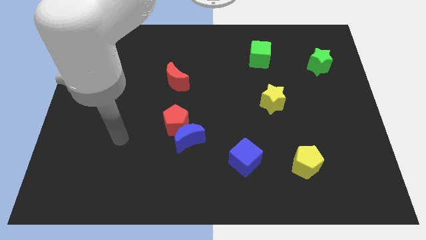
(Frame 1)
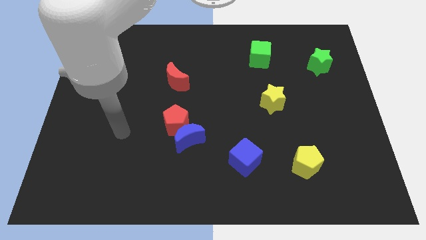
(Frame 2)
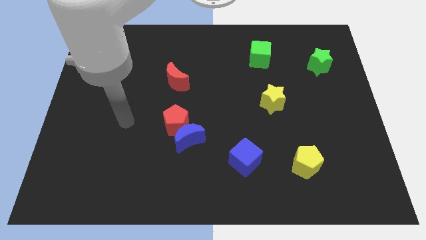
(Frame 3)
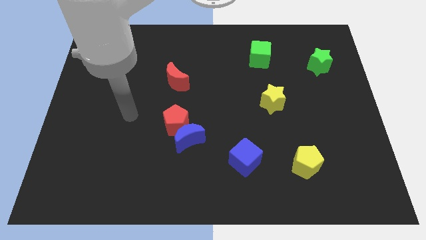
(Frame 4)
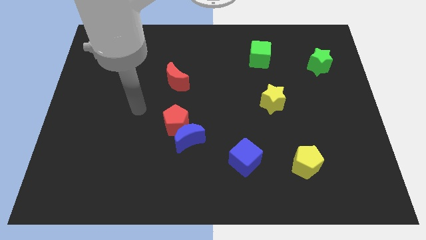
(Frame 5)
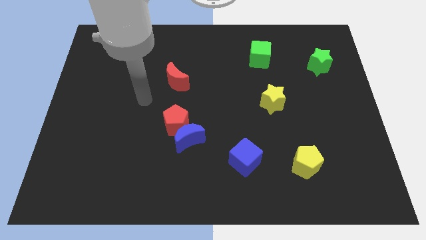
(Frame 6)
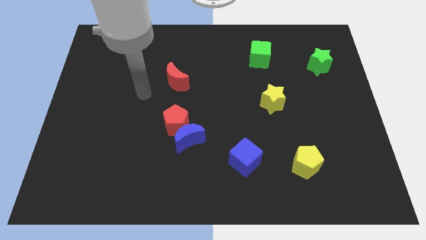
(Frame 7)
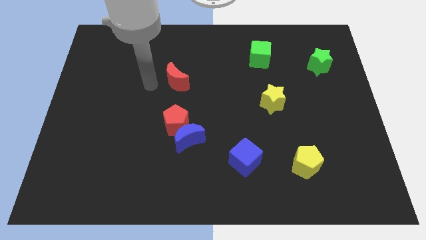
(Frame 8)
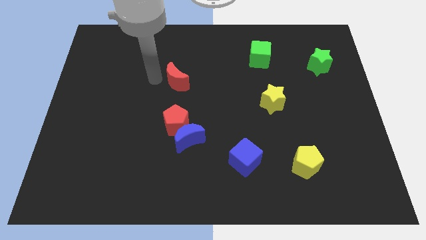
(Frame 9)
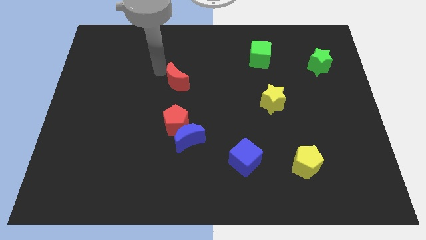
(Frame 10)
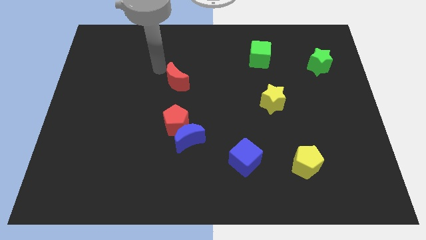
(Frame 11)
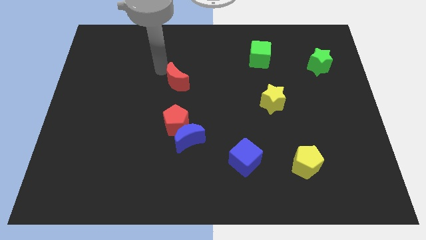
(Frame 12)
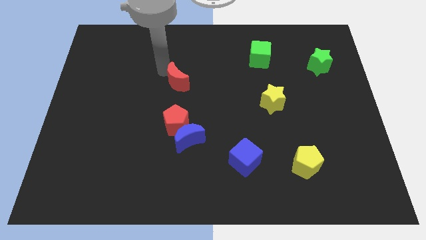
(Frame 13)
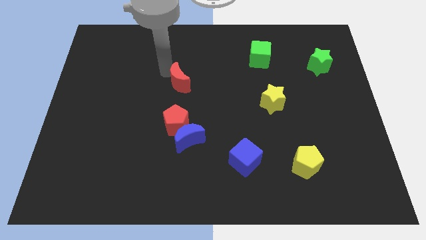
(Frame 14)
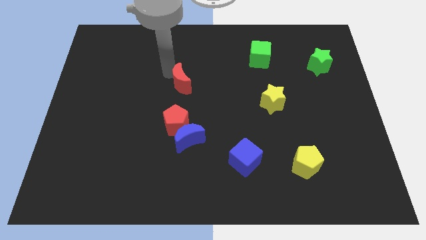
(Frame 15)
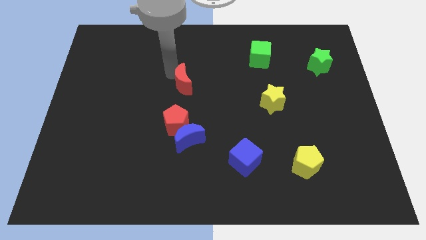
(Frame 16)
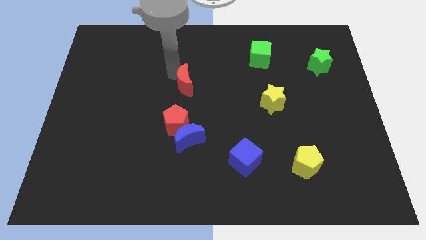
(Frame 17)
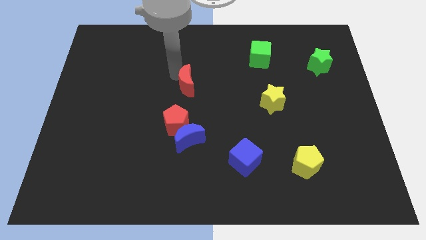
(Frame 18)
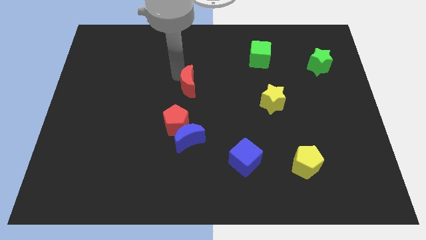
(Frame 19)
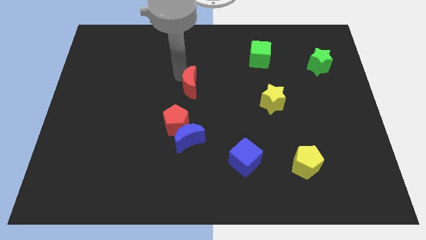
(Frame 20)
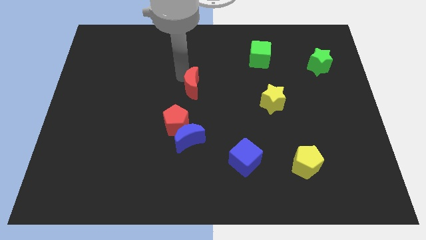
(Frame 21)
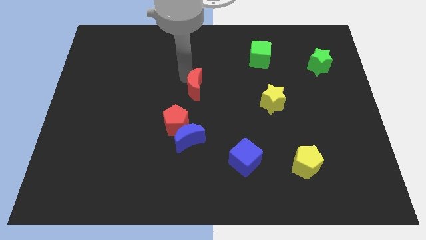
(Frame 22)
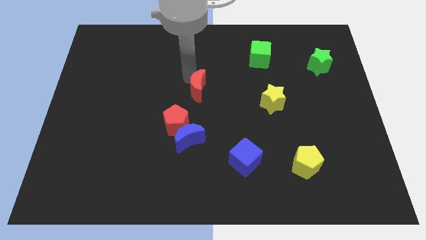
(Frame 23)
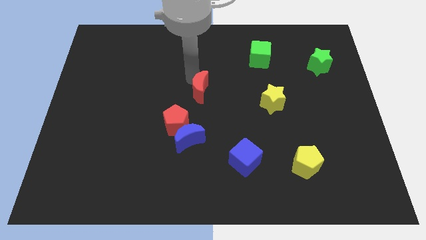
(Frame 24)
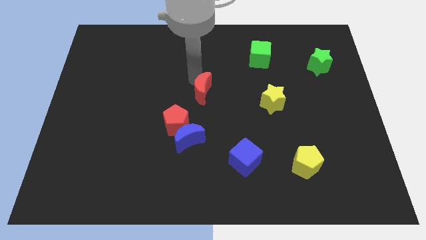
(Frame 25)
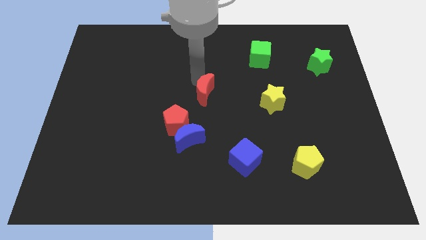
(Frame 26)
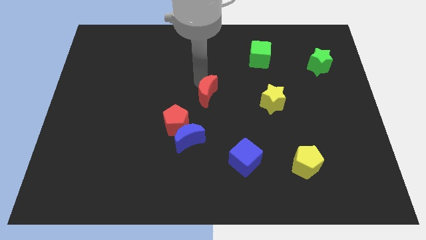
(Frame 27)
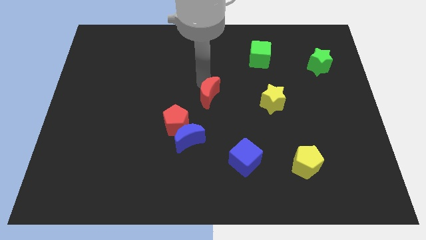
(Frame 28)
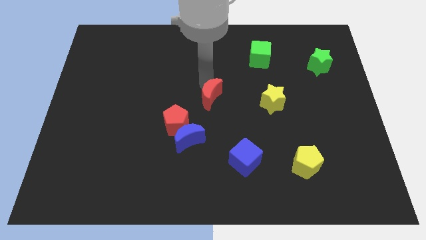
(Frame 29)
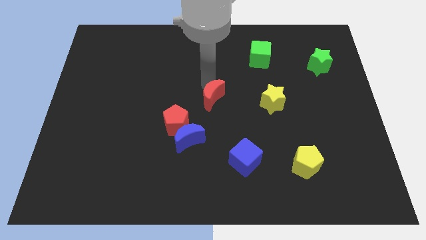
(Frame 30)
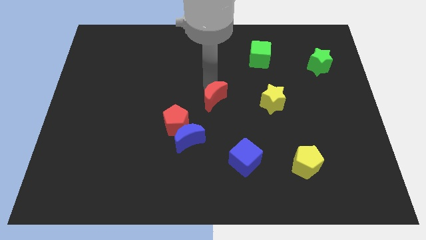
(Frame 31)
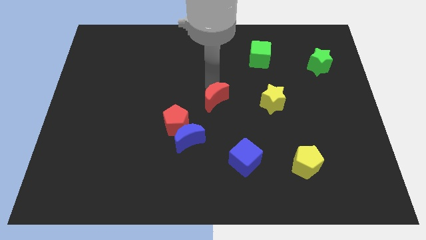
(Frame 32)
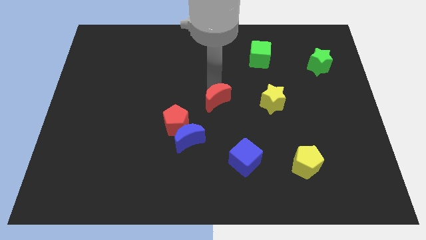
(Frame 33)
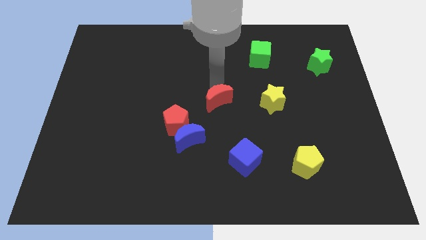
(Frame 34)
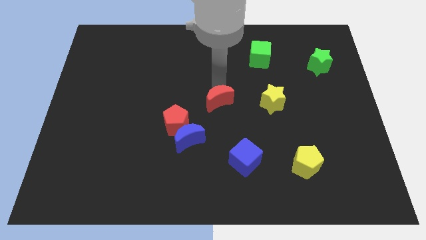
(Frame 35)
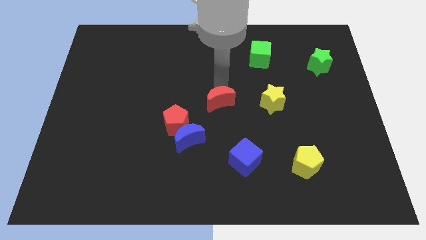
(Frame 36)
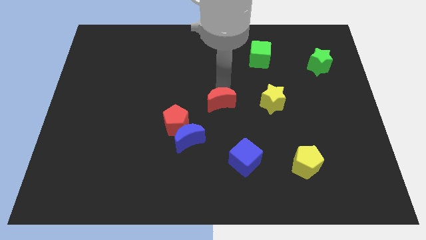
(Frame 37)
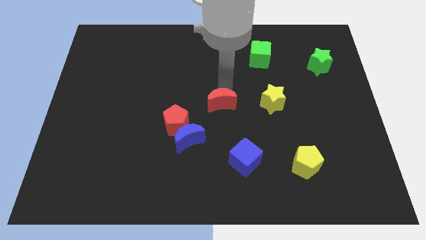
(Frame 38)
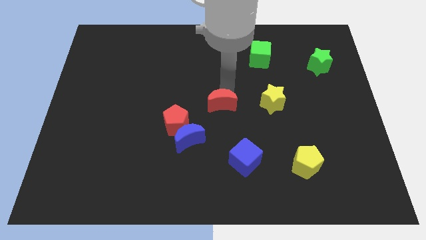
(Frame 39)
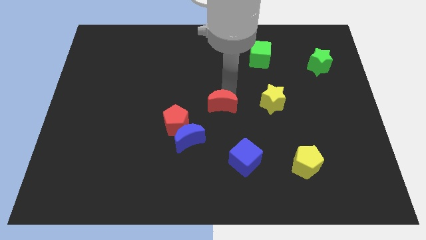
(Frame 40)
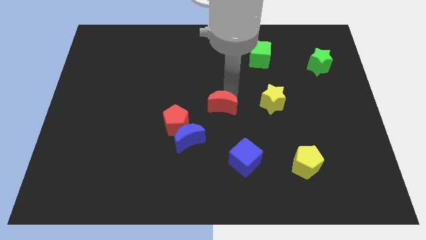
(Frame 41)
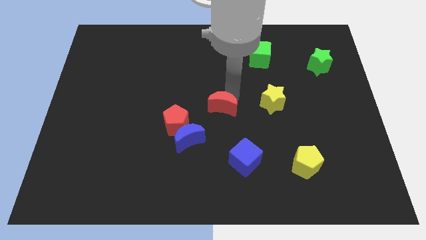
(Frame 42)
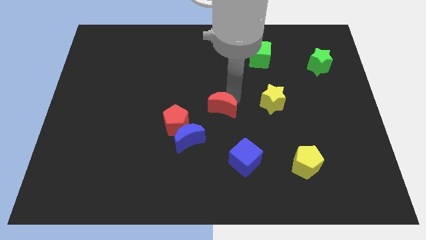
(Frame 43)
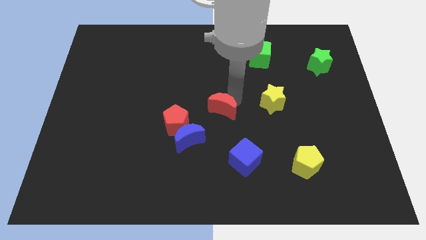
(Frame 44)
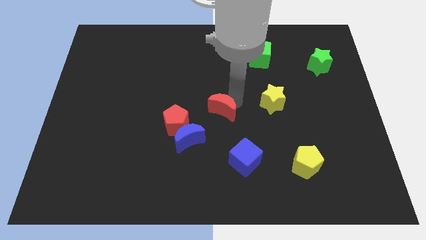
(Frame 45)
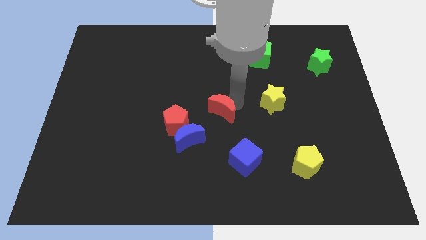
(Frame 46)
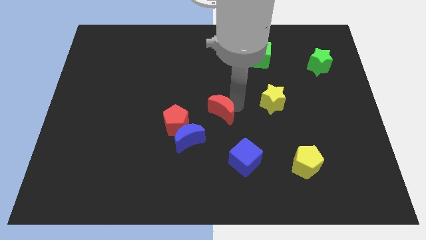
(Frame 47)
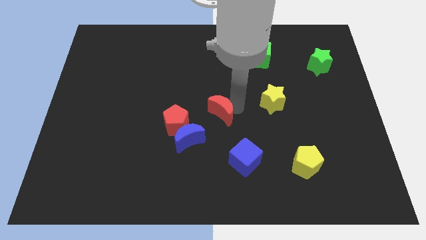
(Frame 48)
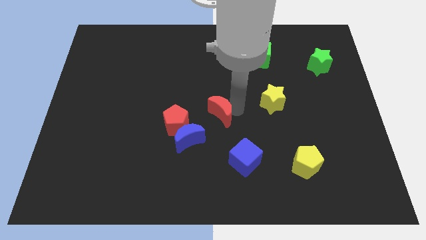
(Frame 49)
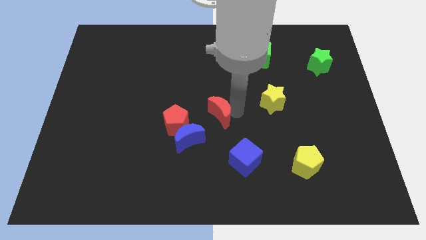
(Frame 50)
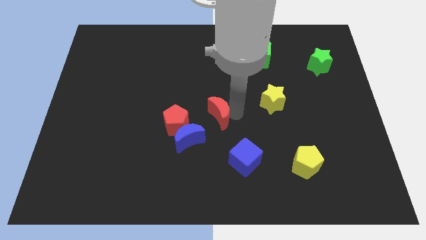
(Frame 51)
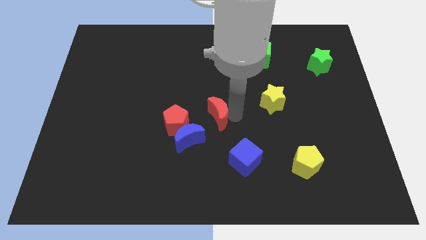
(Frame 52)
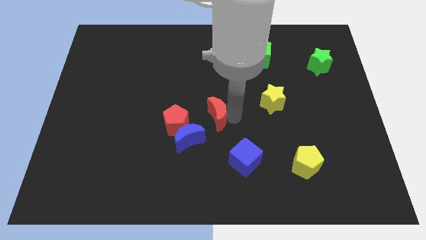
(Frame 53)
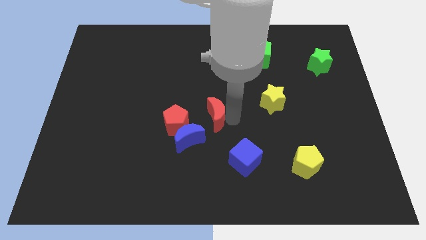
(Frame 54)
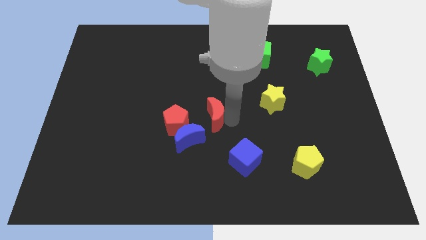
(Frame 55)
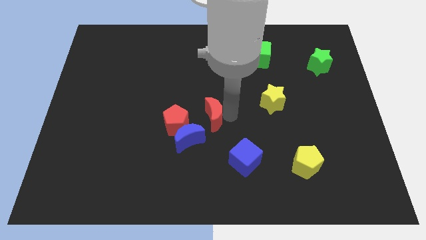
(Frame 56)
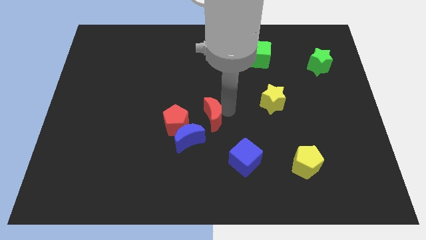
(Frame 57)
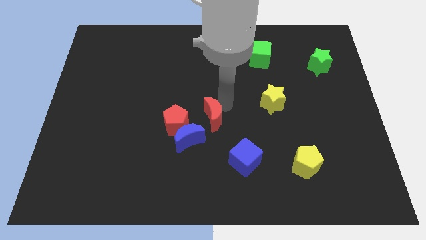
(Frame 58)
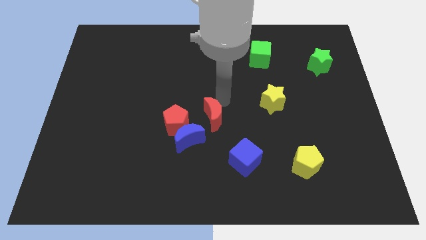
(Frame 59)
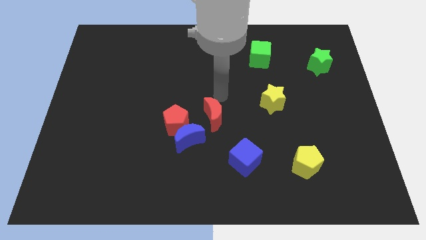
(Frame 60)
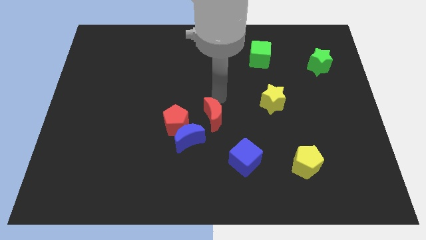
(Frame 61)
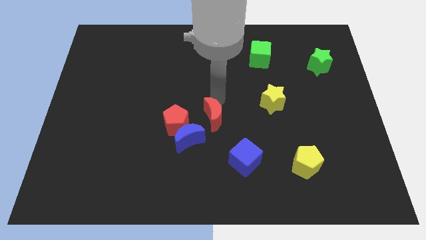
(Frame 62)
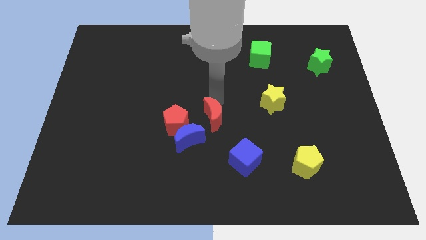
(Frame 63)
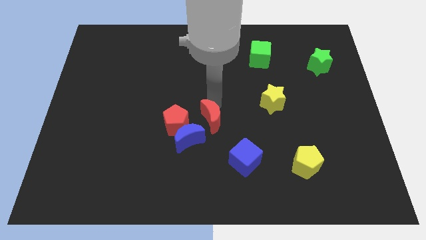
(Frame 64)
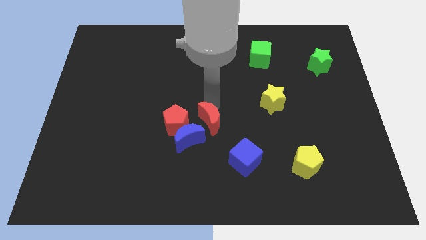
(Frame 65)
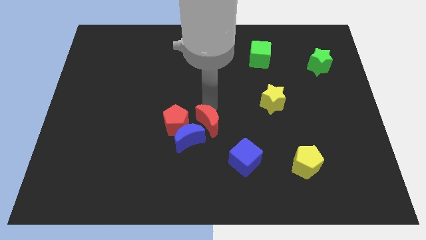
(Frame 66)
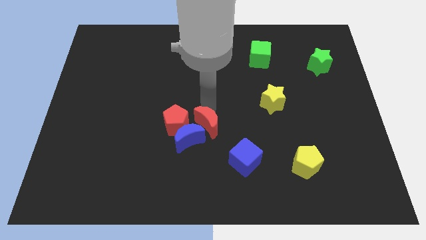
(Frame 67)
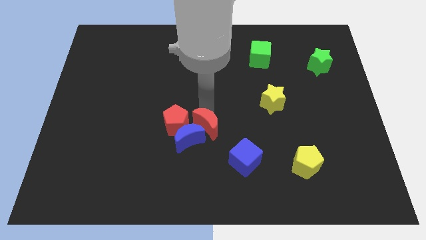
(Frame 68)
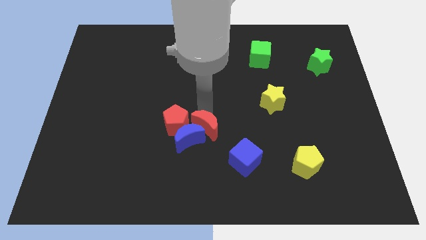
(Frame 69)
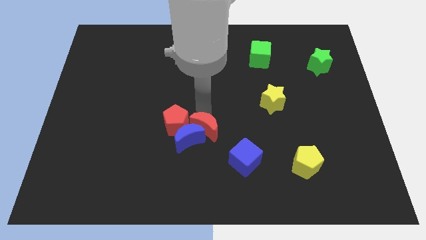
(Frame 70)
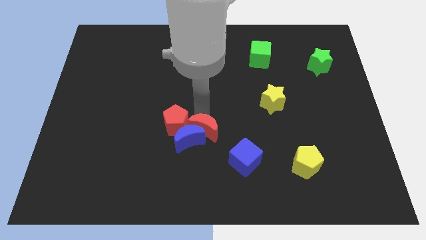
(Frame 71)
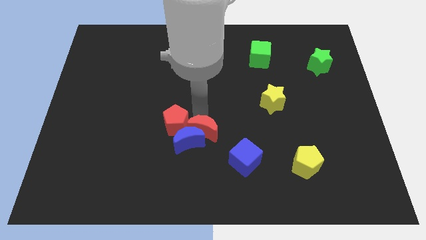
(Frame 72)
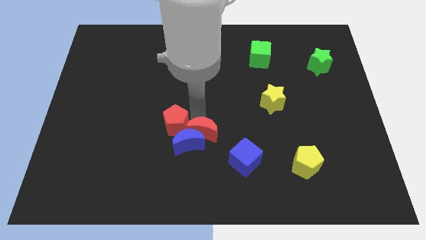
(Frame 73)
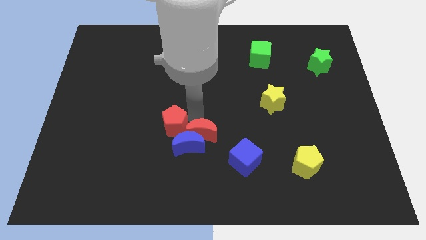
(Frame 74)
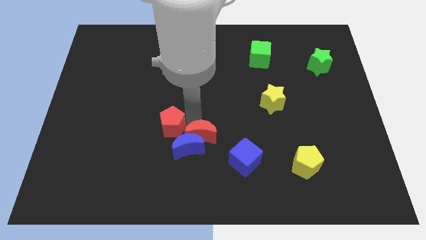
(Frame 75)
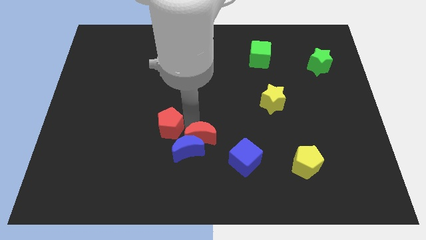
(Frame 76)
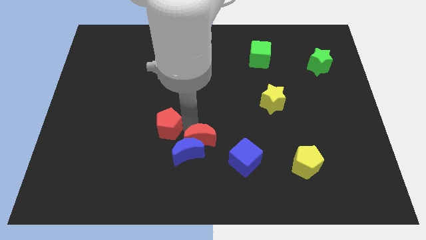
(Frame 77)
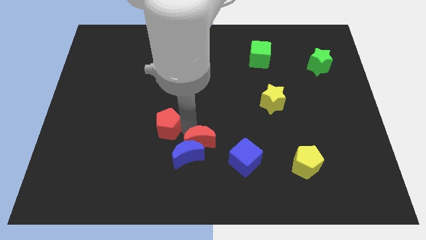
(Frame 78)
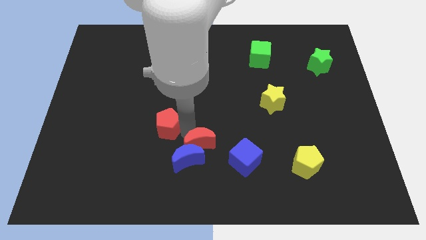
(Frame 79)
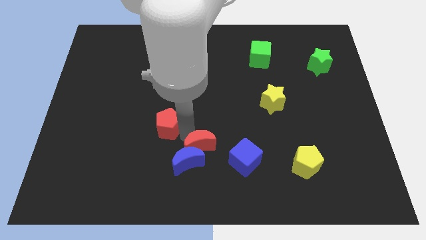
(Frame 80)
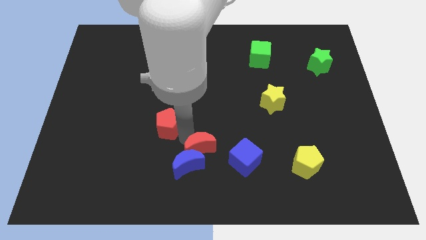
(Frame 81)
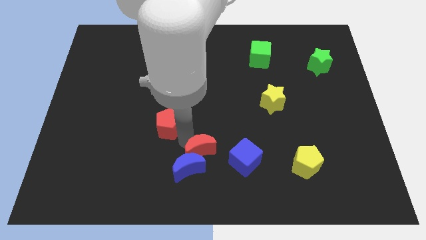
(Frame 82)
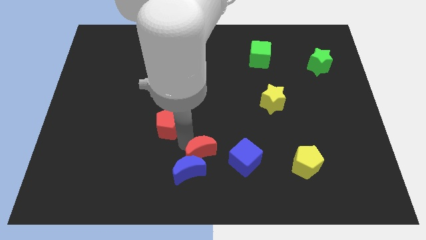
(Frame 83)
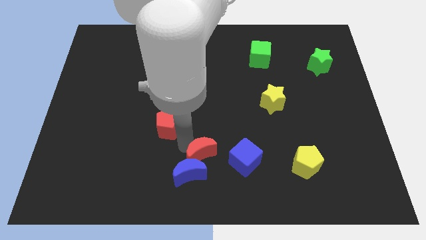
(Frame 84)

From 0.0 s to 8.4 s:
slide the red moon to the bottom side
